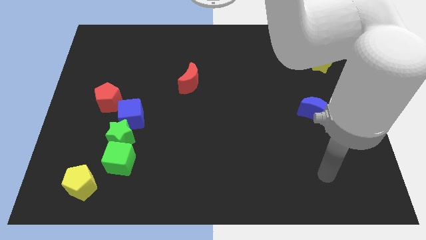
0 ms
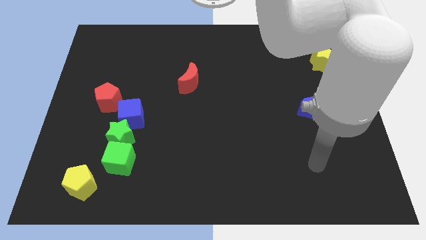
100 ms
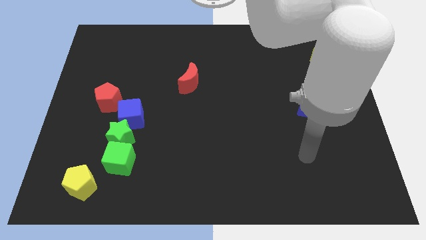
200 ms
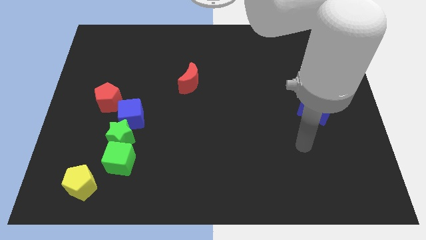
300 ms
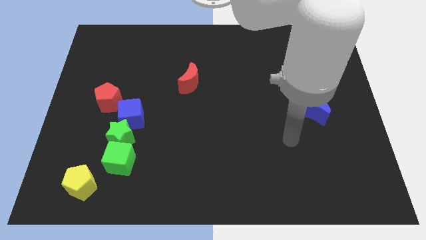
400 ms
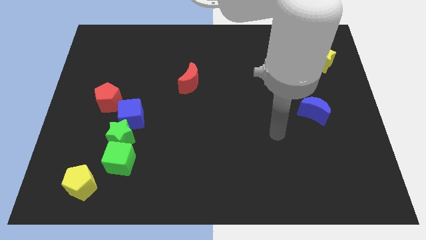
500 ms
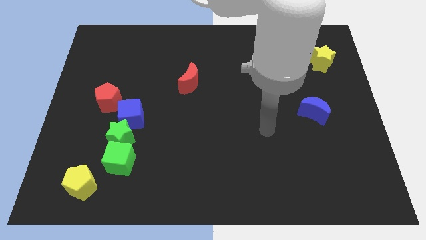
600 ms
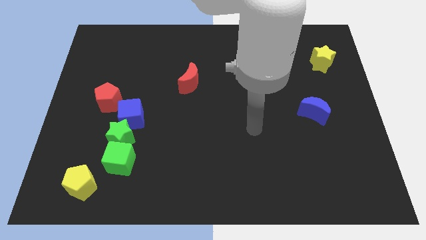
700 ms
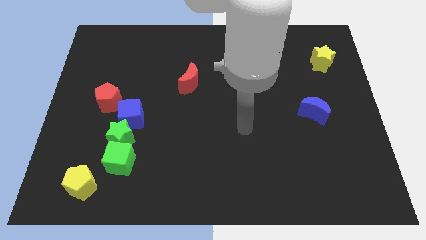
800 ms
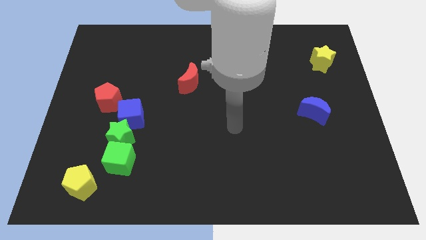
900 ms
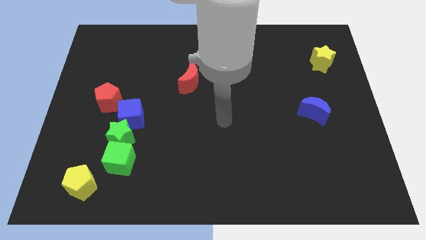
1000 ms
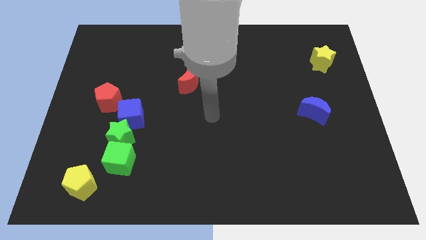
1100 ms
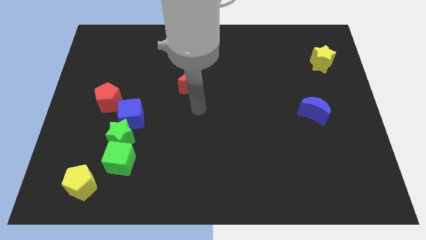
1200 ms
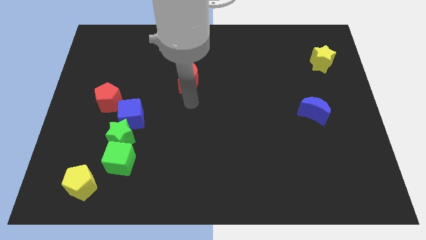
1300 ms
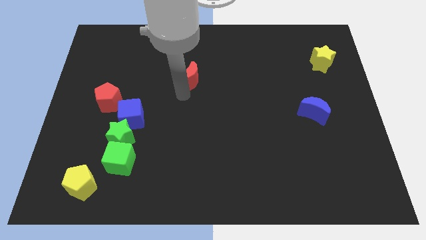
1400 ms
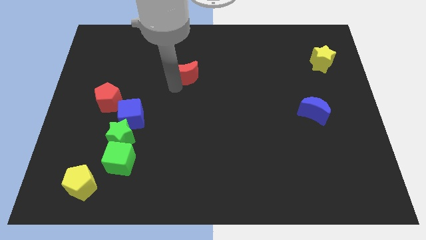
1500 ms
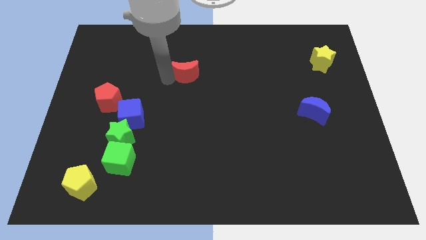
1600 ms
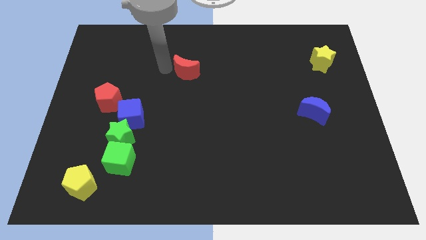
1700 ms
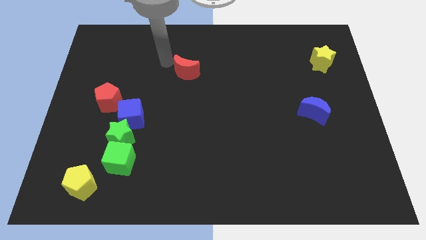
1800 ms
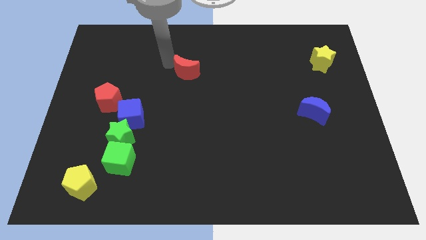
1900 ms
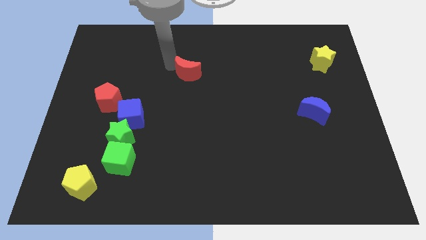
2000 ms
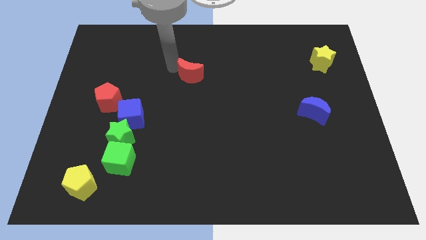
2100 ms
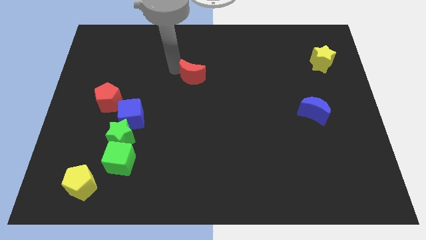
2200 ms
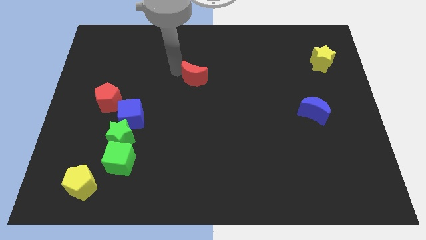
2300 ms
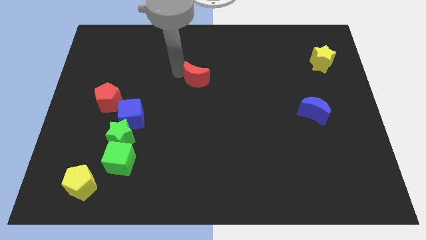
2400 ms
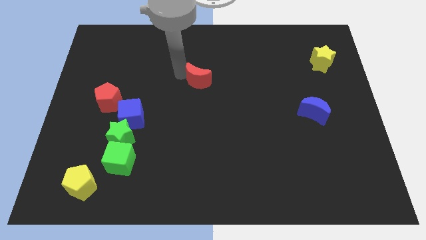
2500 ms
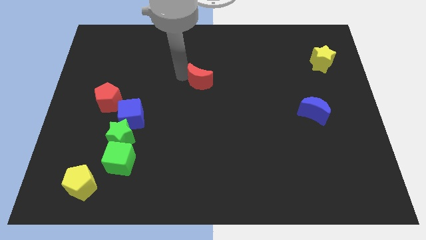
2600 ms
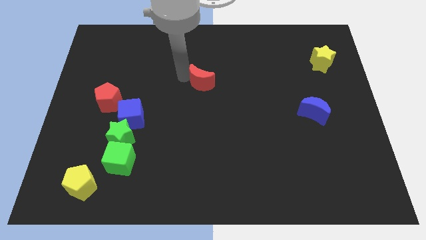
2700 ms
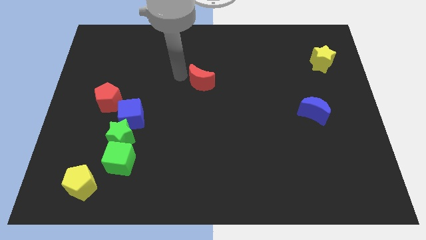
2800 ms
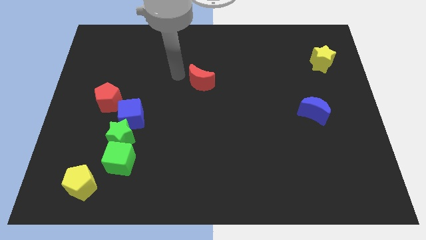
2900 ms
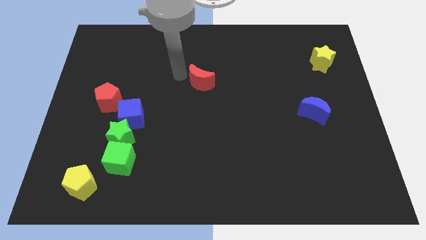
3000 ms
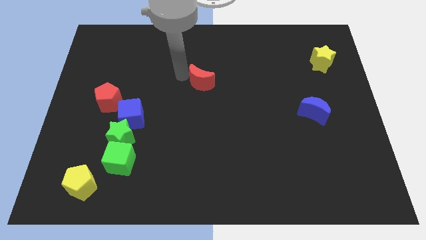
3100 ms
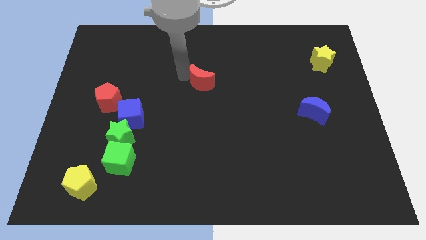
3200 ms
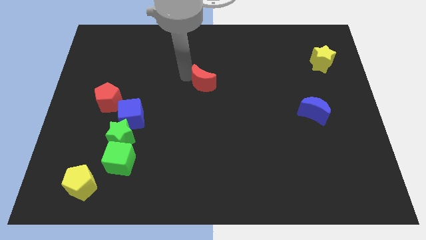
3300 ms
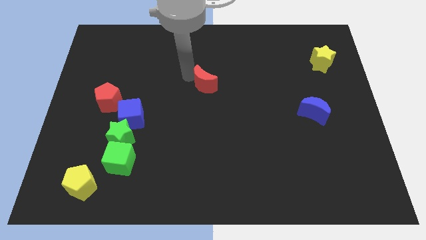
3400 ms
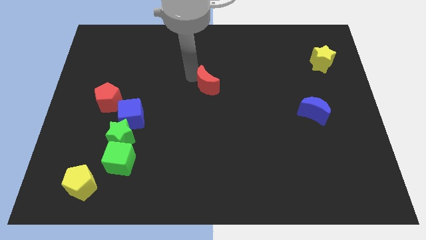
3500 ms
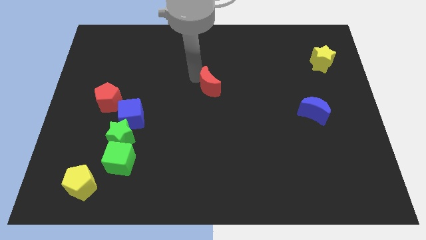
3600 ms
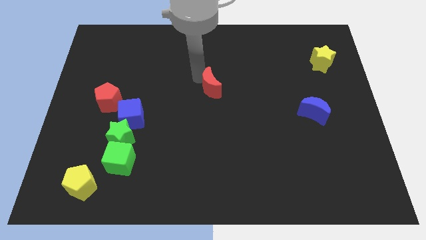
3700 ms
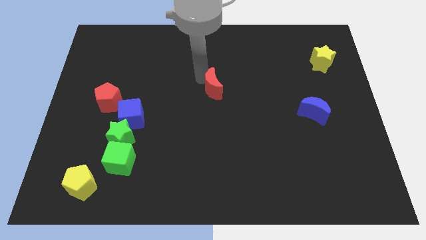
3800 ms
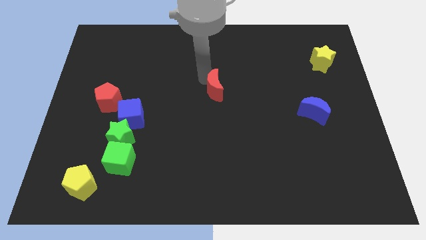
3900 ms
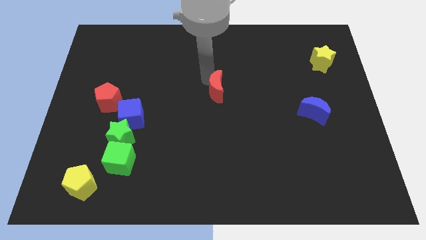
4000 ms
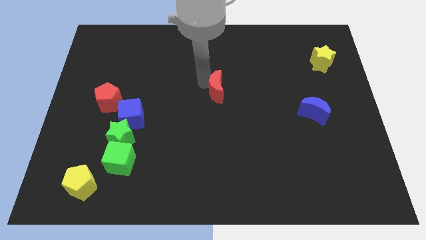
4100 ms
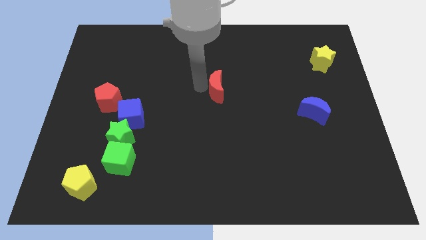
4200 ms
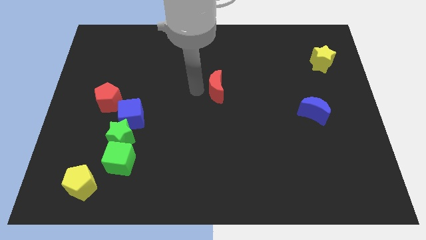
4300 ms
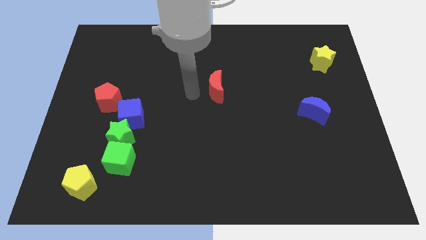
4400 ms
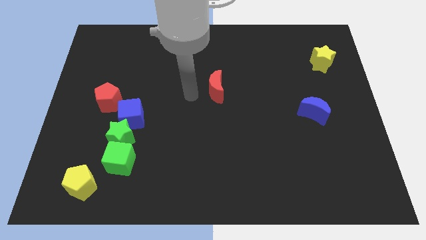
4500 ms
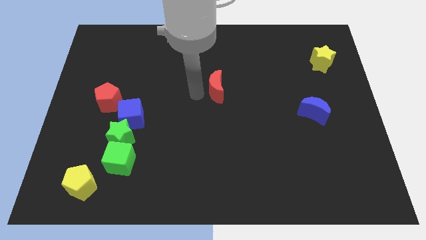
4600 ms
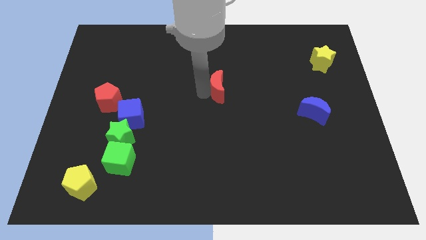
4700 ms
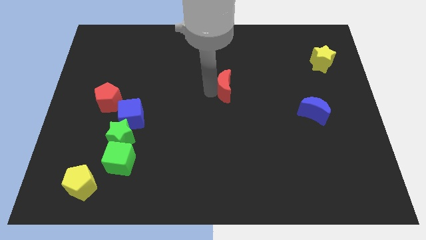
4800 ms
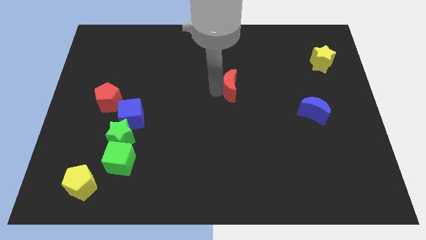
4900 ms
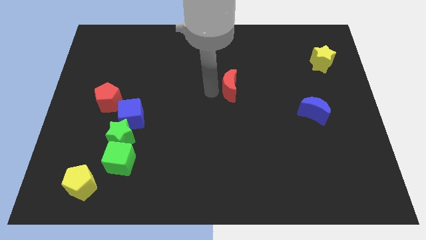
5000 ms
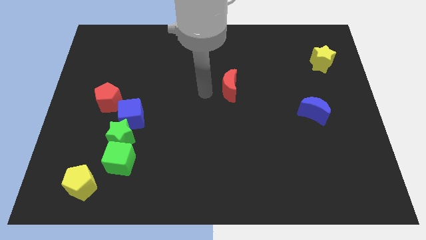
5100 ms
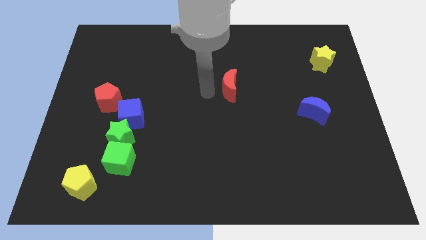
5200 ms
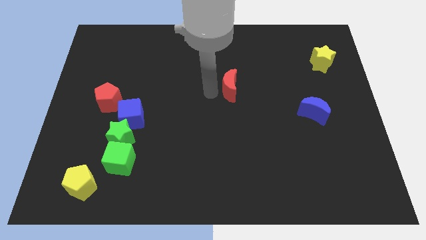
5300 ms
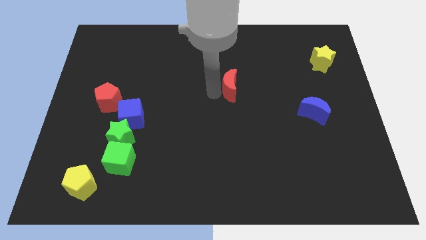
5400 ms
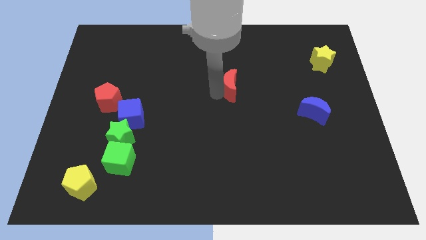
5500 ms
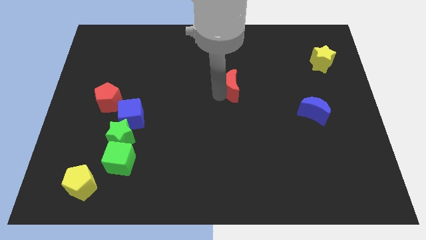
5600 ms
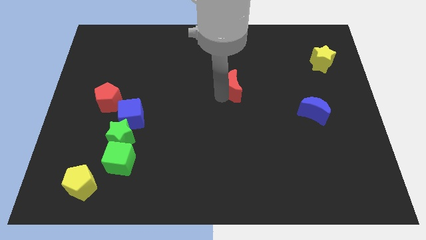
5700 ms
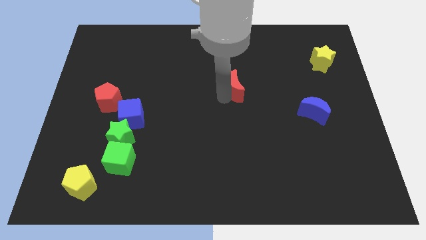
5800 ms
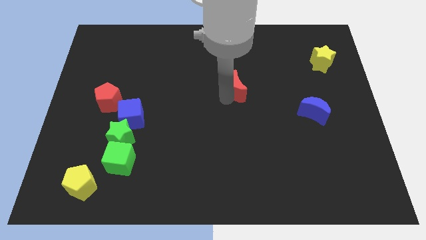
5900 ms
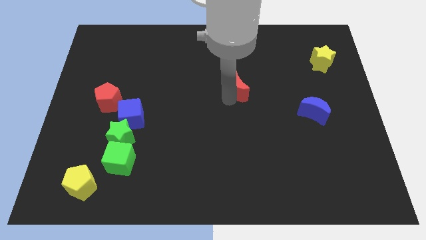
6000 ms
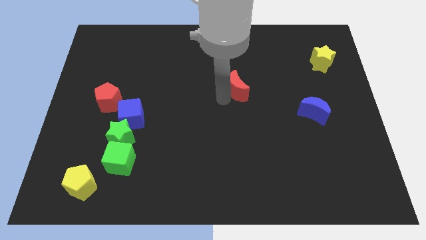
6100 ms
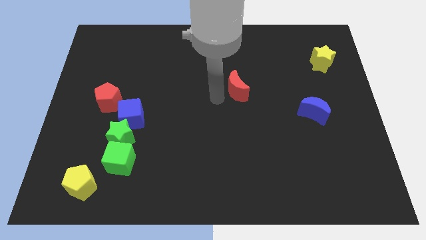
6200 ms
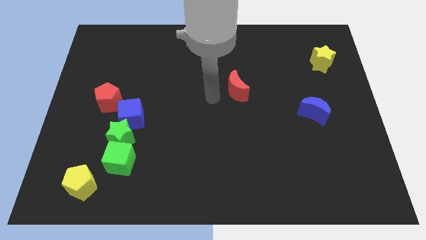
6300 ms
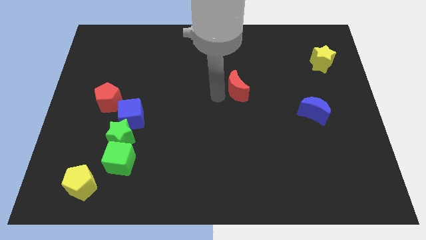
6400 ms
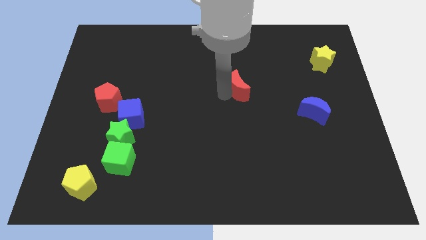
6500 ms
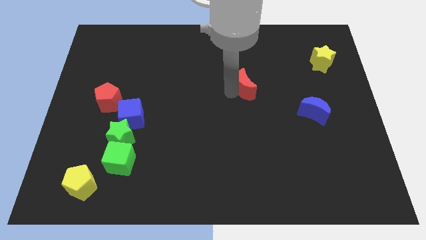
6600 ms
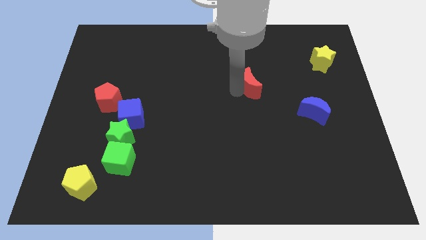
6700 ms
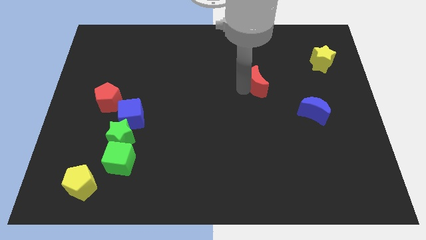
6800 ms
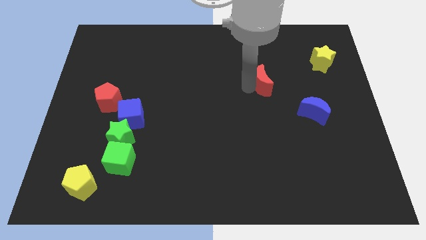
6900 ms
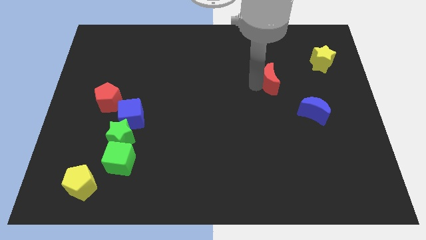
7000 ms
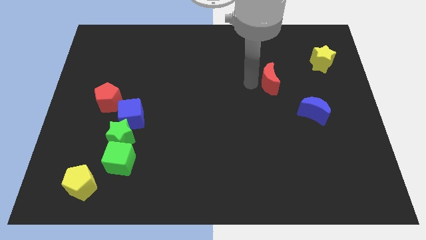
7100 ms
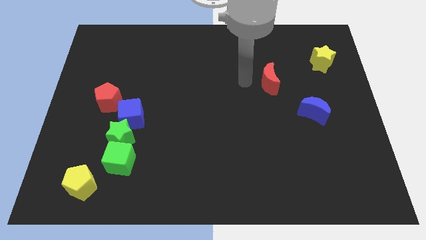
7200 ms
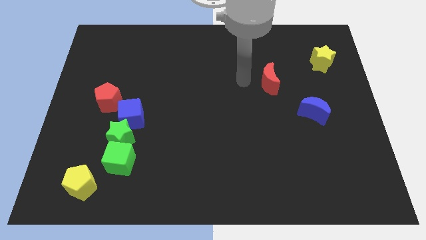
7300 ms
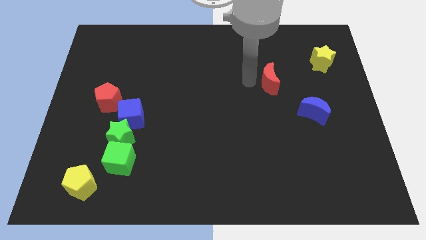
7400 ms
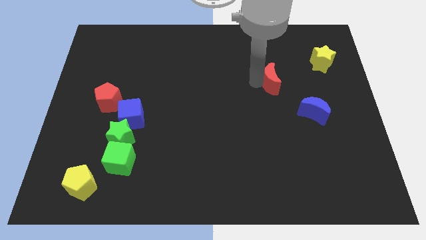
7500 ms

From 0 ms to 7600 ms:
push the red moon right
